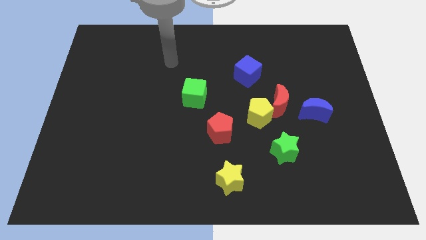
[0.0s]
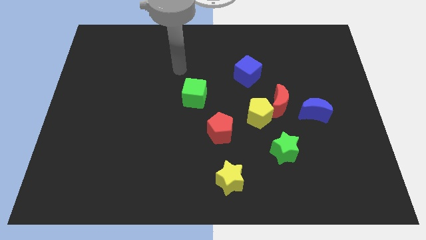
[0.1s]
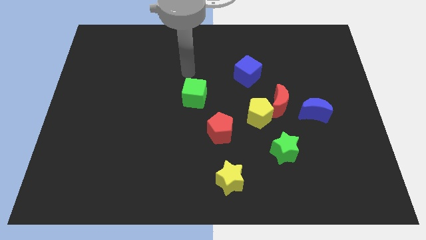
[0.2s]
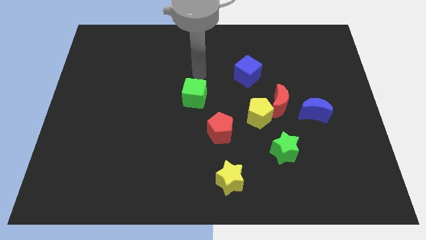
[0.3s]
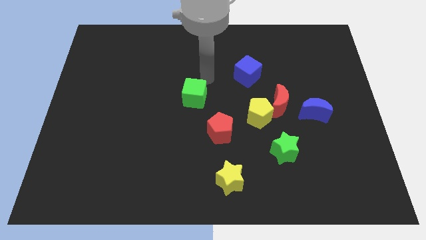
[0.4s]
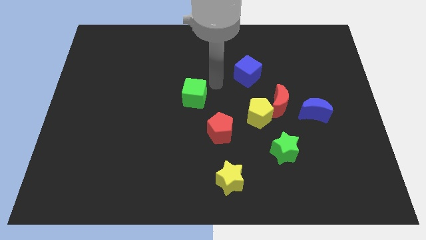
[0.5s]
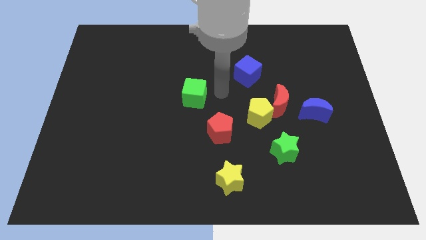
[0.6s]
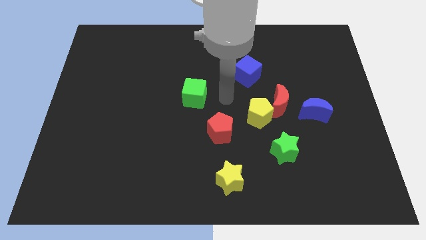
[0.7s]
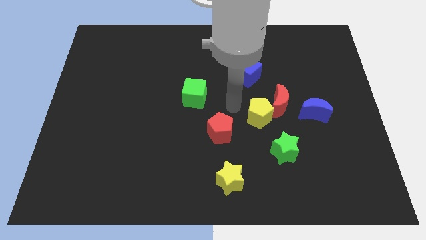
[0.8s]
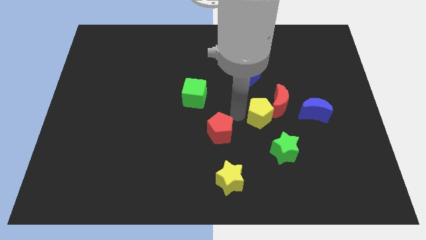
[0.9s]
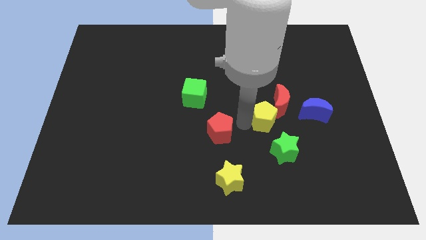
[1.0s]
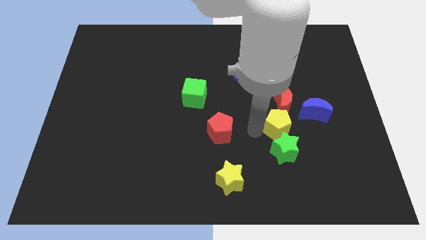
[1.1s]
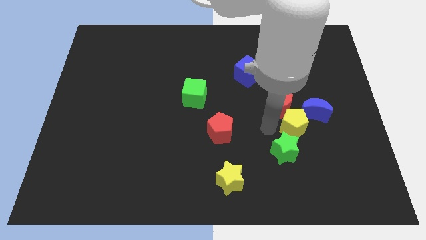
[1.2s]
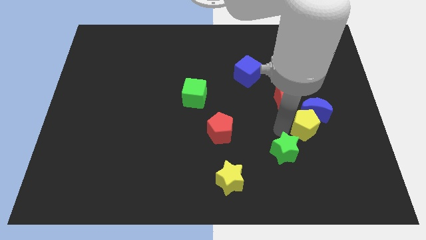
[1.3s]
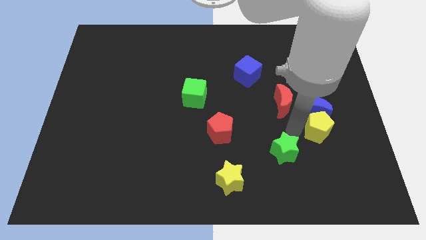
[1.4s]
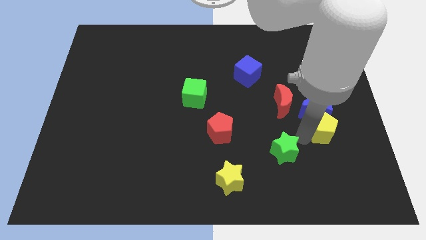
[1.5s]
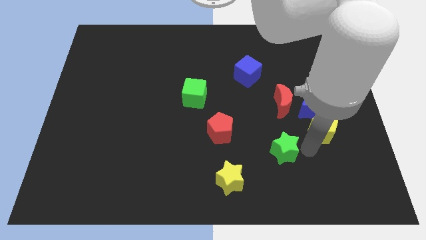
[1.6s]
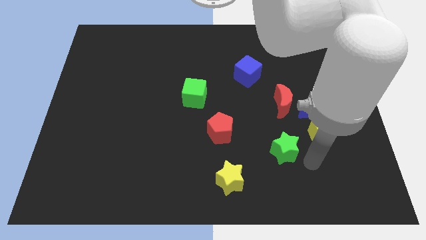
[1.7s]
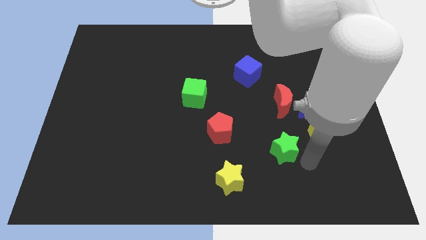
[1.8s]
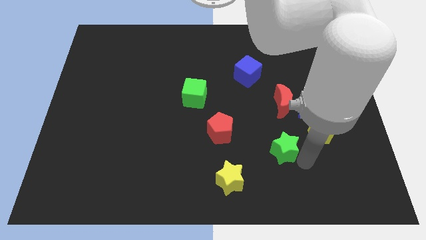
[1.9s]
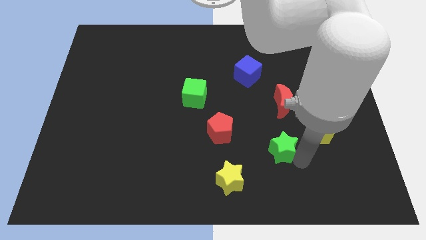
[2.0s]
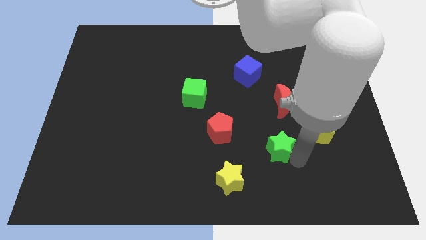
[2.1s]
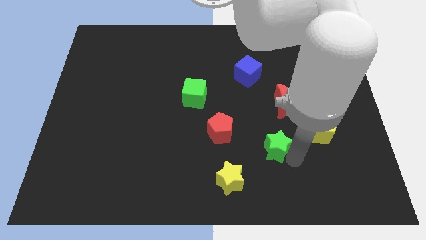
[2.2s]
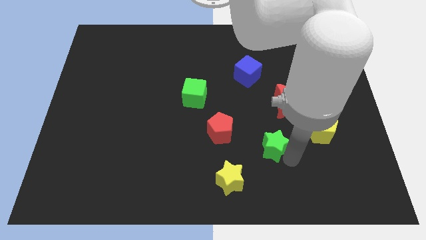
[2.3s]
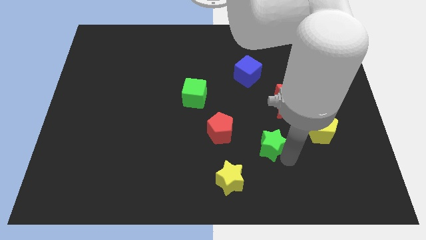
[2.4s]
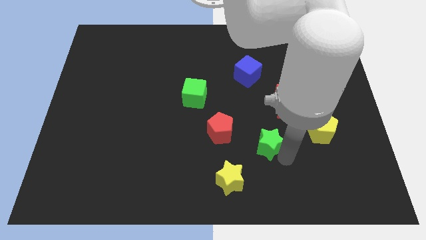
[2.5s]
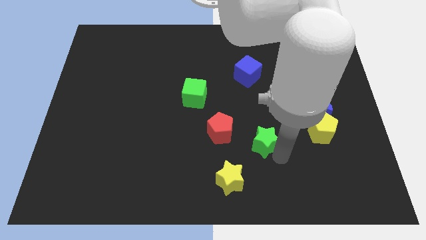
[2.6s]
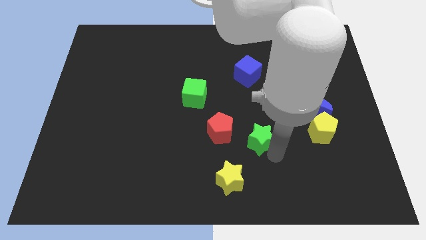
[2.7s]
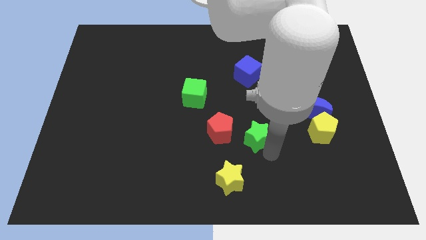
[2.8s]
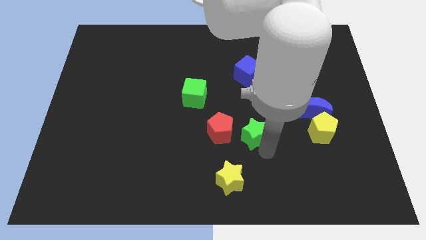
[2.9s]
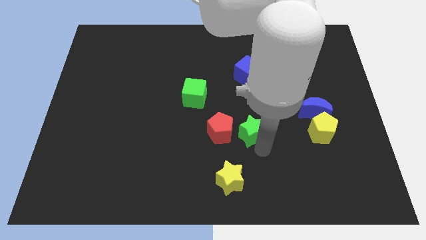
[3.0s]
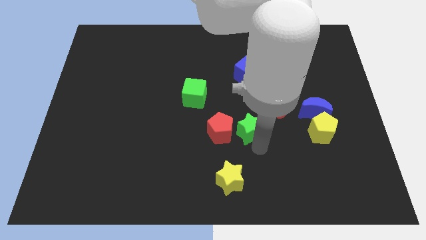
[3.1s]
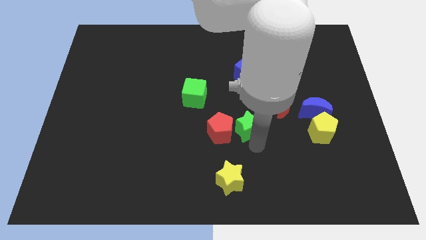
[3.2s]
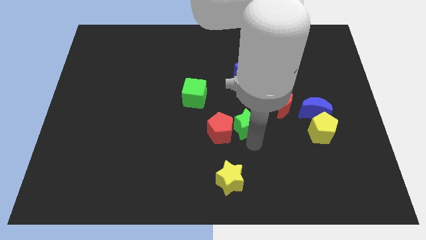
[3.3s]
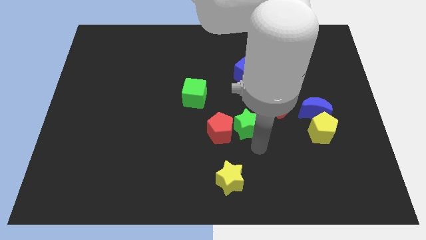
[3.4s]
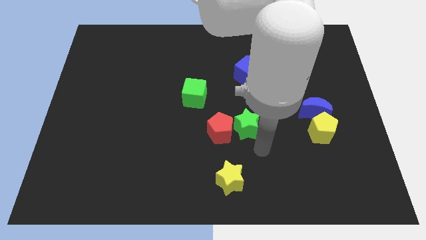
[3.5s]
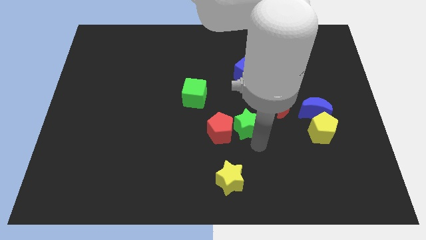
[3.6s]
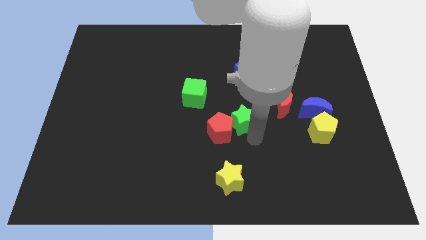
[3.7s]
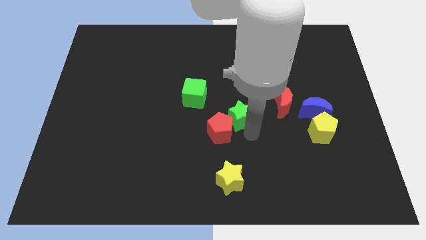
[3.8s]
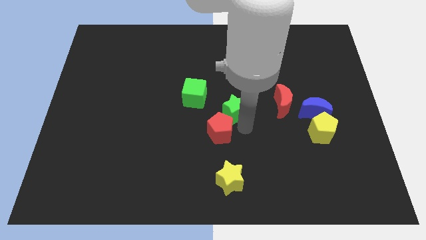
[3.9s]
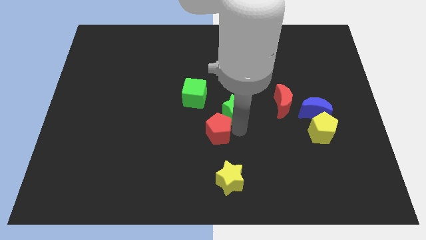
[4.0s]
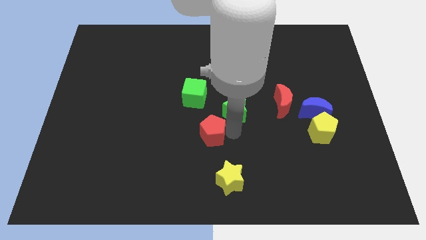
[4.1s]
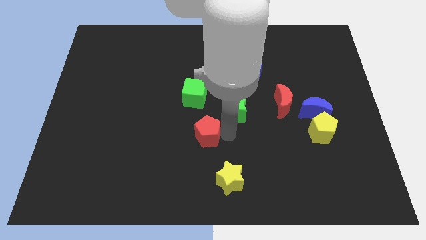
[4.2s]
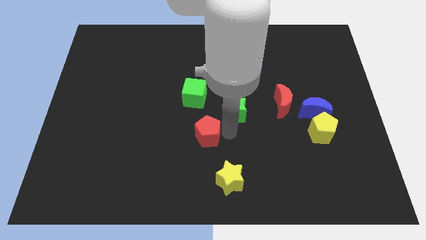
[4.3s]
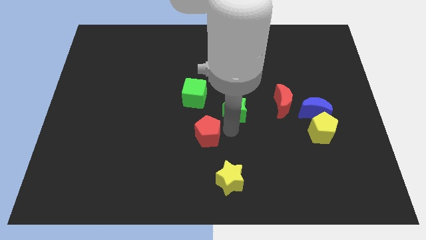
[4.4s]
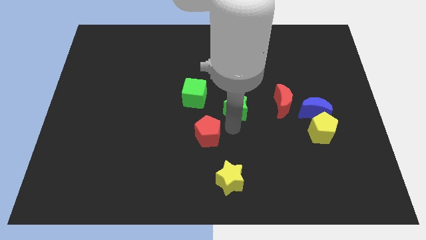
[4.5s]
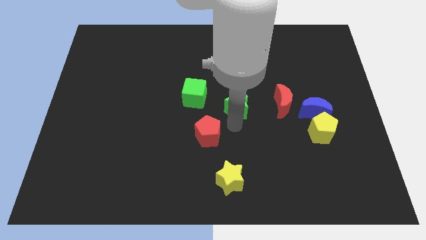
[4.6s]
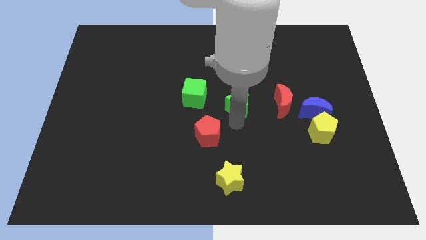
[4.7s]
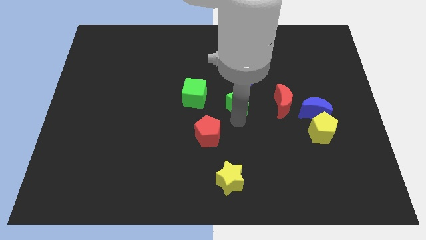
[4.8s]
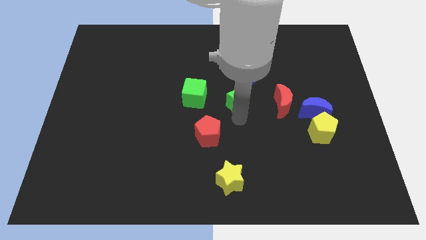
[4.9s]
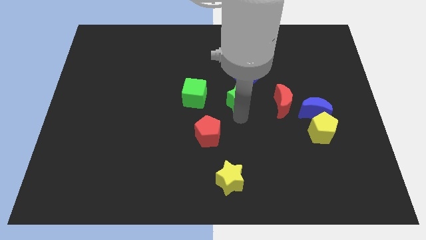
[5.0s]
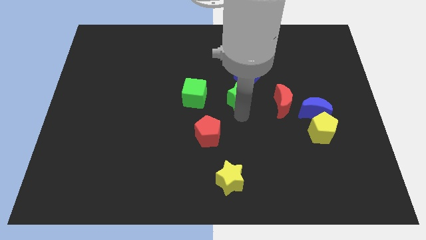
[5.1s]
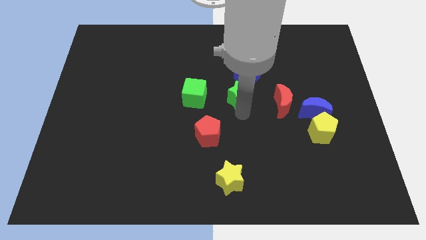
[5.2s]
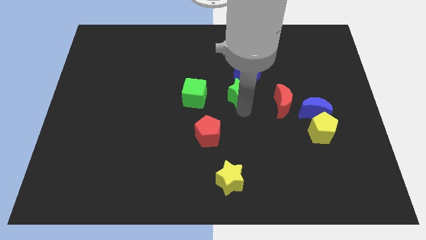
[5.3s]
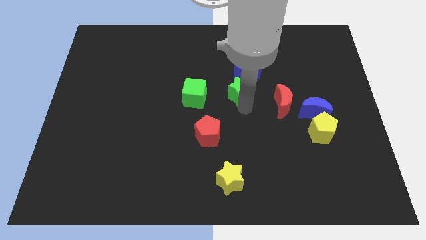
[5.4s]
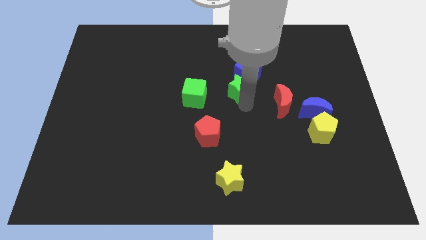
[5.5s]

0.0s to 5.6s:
push the green star next to the blue cube

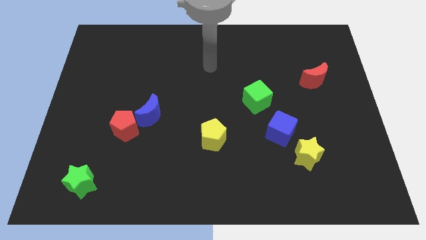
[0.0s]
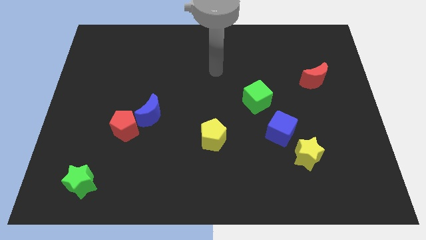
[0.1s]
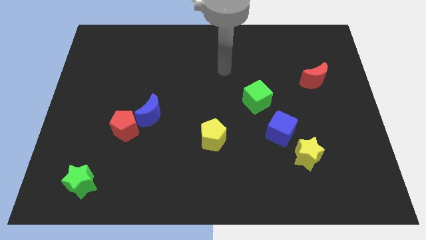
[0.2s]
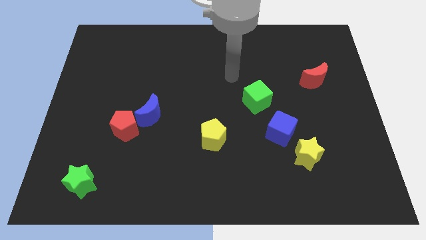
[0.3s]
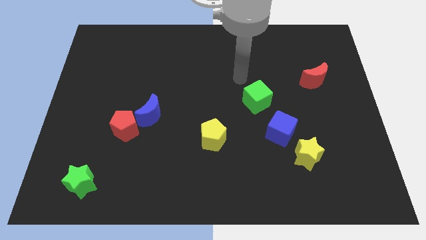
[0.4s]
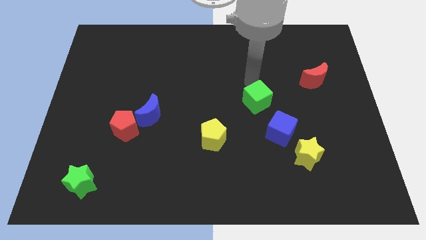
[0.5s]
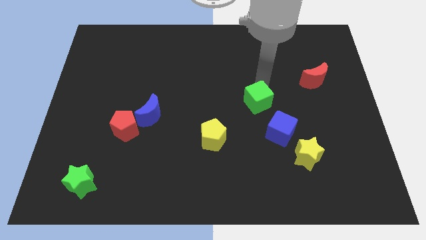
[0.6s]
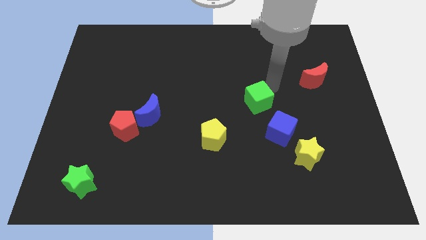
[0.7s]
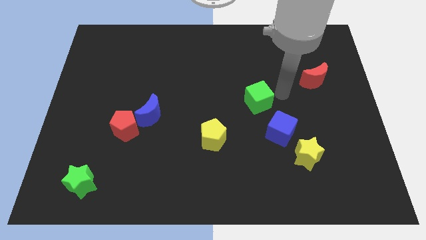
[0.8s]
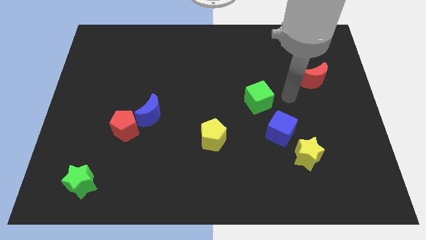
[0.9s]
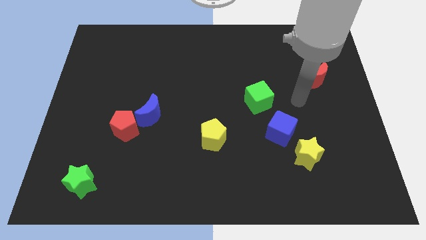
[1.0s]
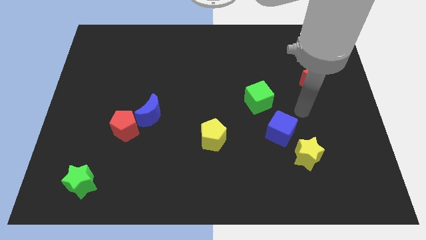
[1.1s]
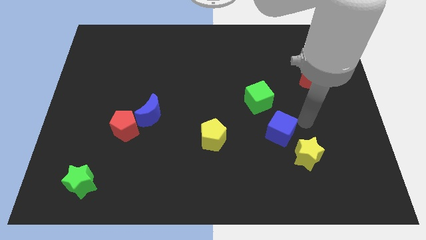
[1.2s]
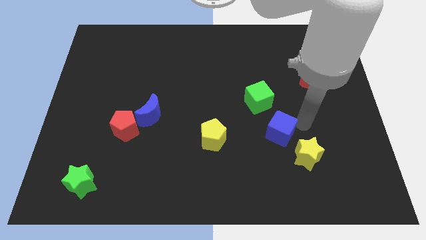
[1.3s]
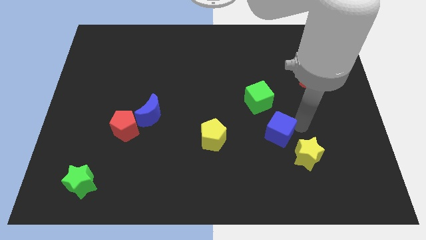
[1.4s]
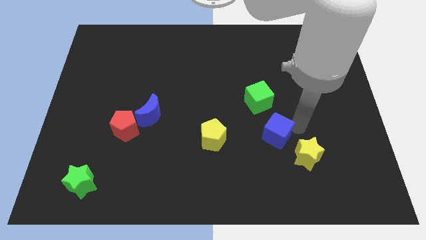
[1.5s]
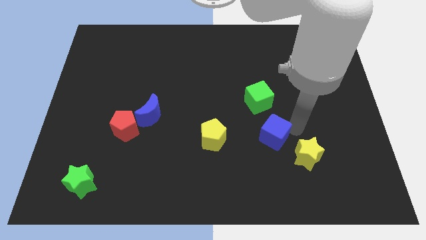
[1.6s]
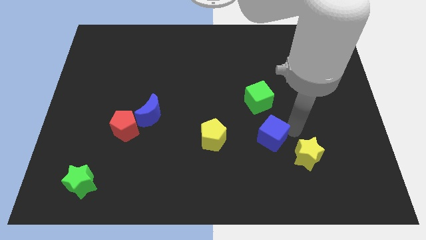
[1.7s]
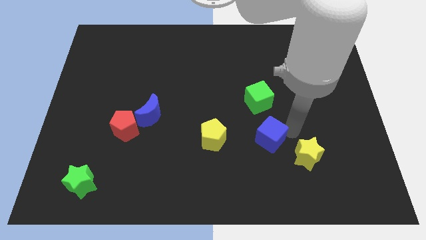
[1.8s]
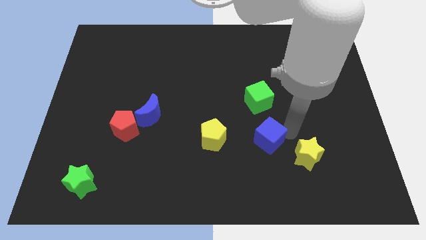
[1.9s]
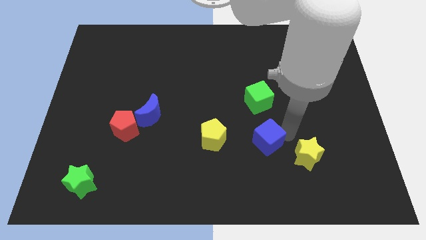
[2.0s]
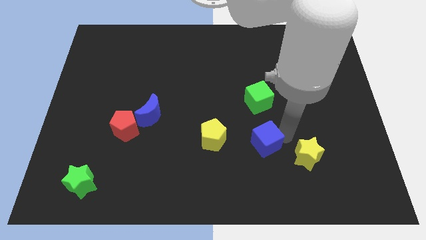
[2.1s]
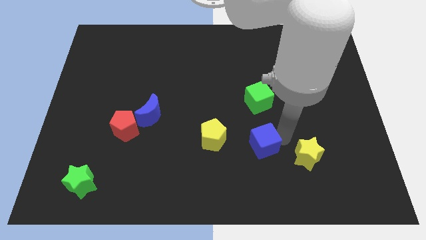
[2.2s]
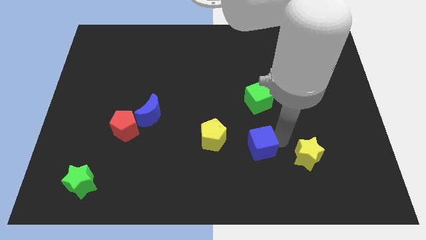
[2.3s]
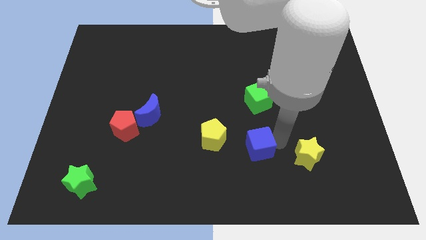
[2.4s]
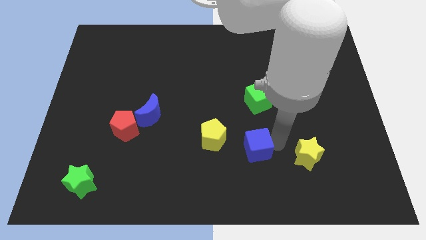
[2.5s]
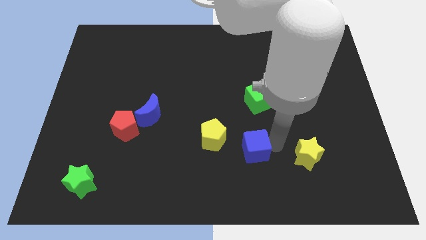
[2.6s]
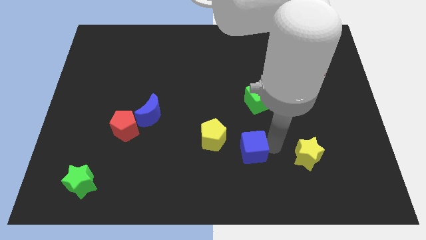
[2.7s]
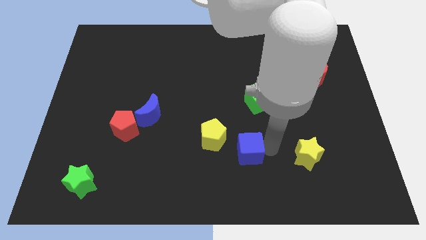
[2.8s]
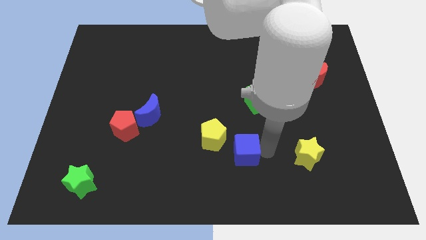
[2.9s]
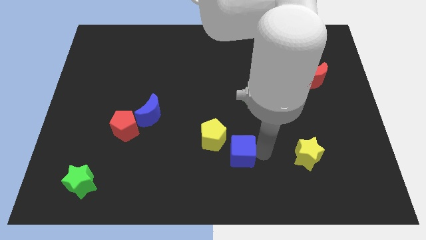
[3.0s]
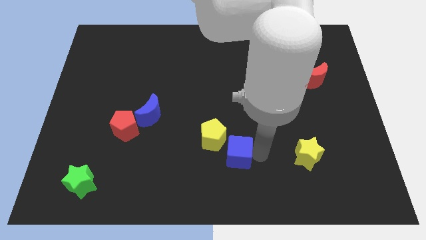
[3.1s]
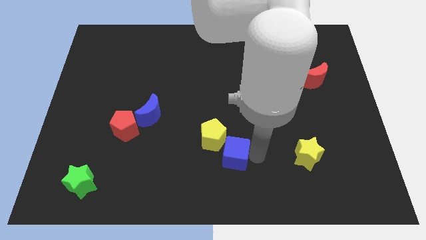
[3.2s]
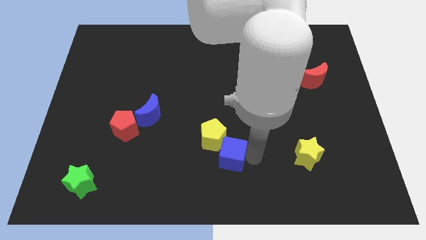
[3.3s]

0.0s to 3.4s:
move the blue cube towards the yellow pentagon
